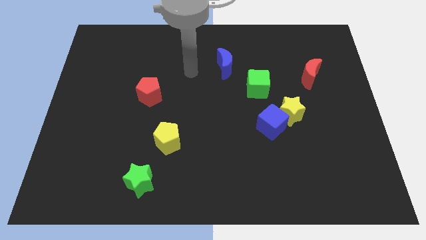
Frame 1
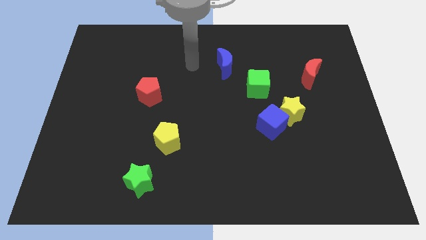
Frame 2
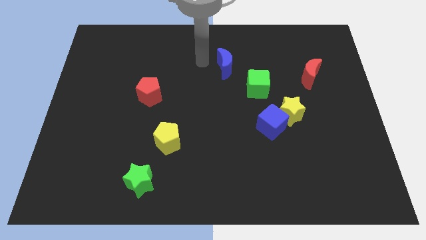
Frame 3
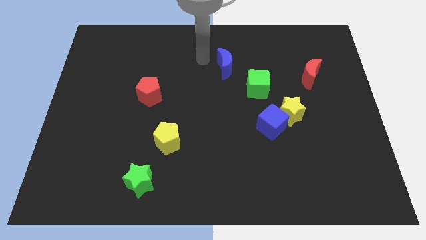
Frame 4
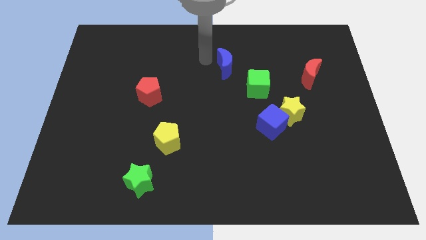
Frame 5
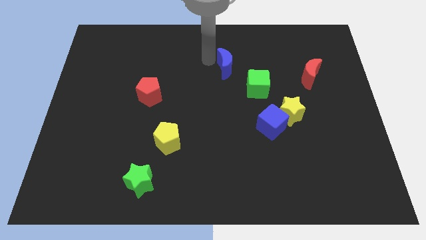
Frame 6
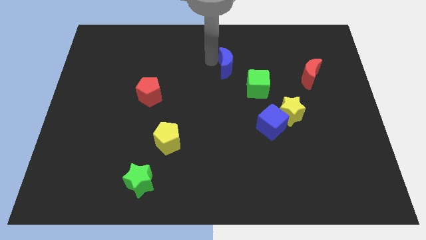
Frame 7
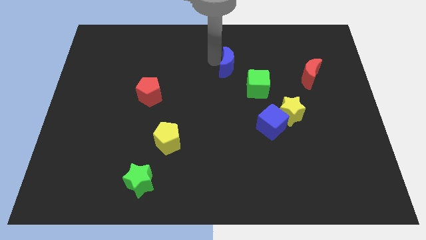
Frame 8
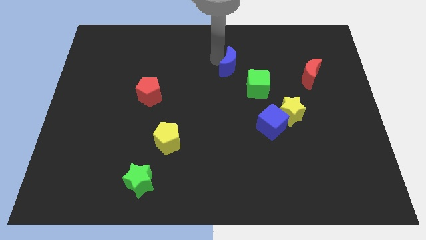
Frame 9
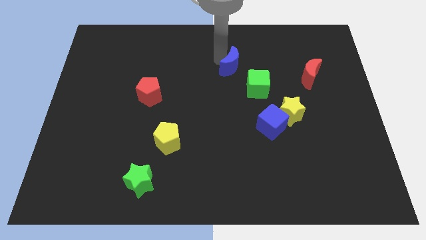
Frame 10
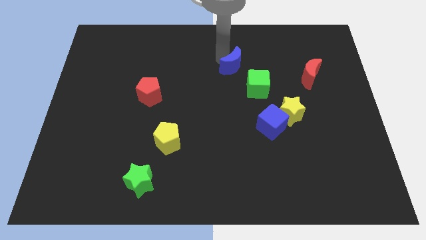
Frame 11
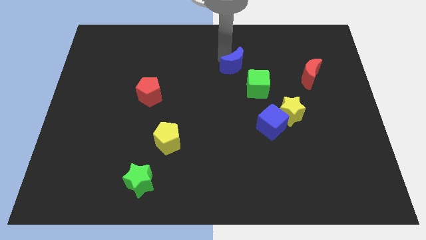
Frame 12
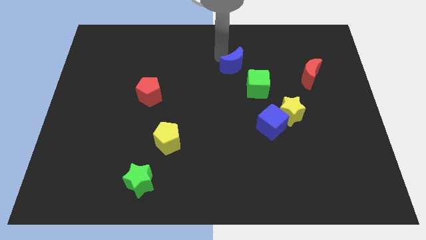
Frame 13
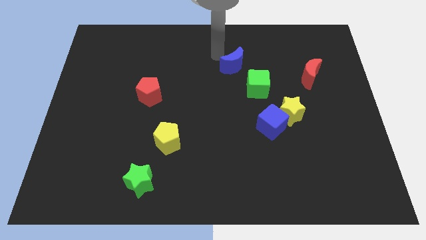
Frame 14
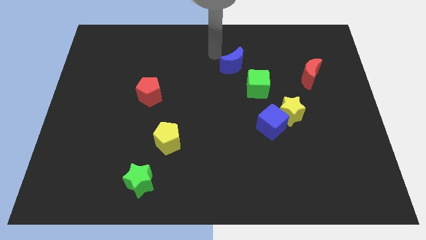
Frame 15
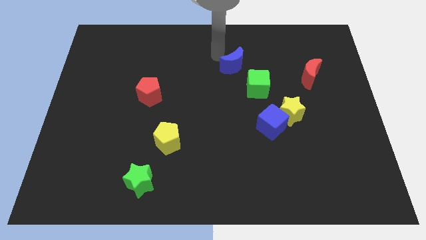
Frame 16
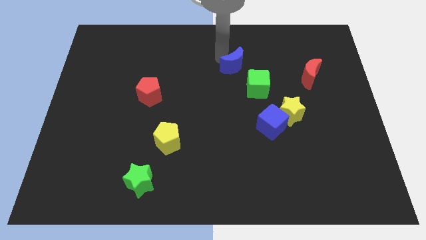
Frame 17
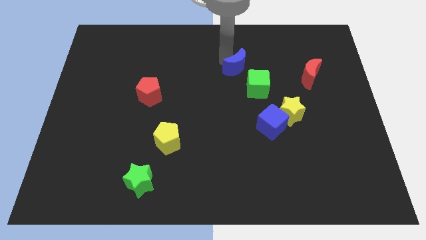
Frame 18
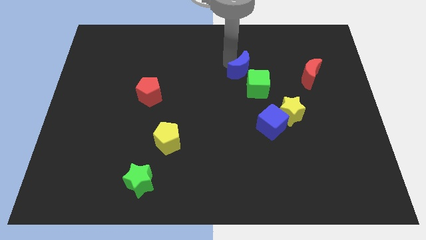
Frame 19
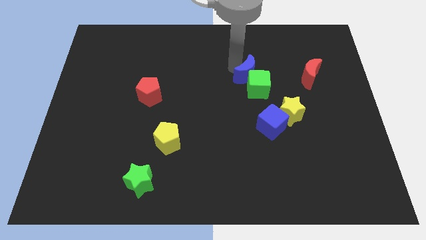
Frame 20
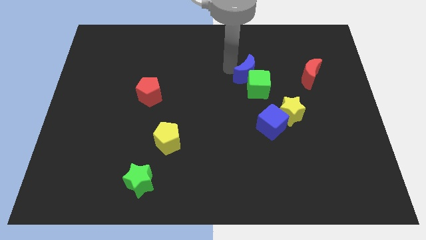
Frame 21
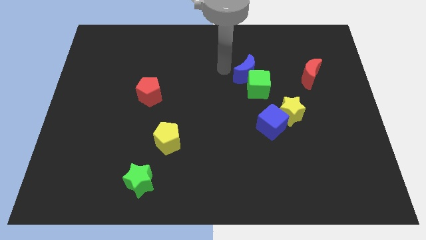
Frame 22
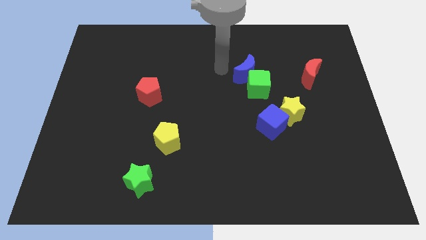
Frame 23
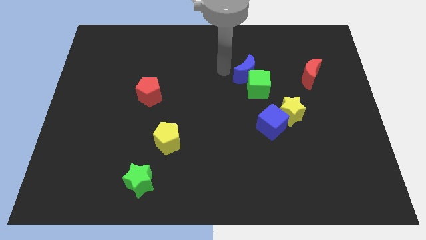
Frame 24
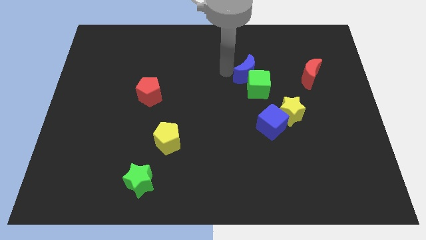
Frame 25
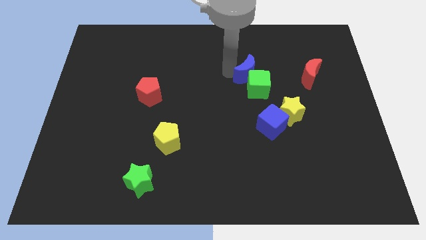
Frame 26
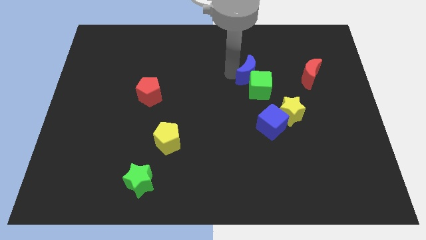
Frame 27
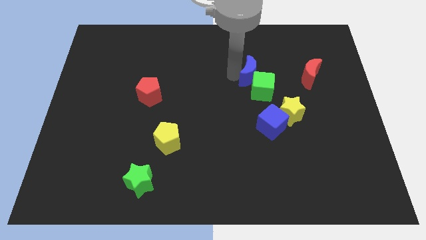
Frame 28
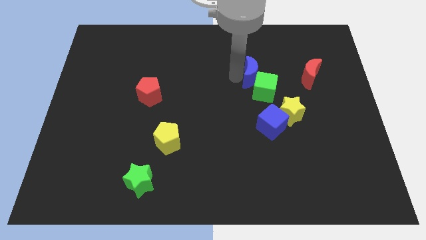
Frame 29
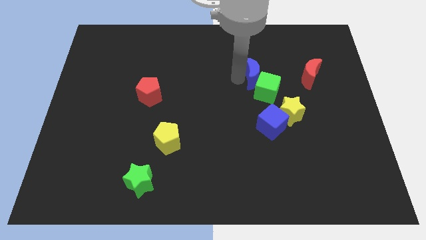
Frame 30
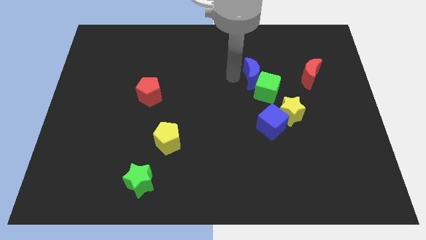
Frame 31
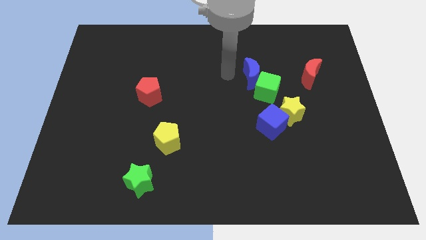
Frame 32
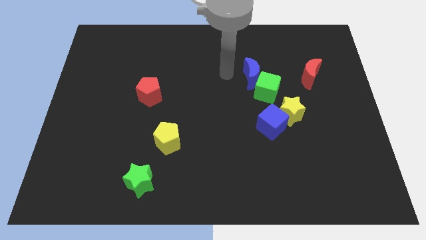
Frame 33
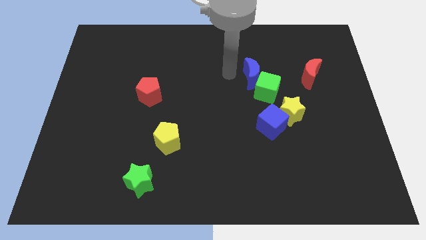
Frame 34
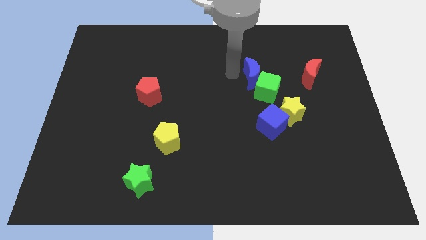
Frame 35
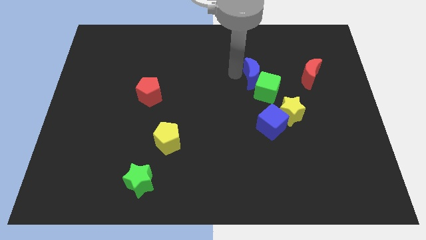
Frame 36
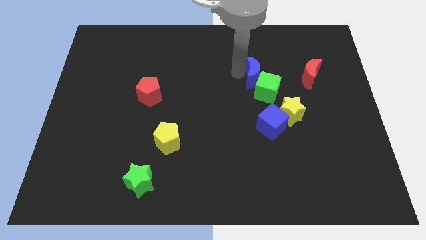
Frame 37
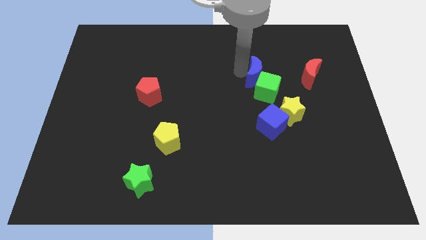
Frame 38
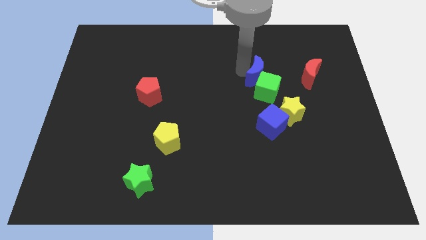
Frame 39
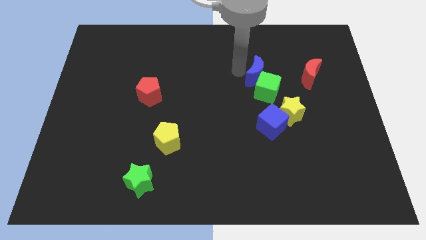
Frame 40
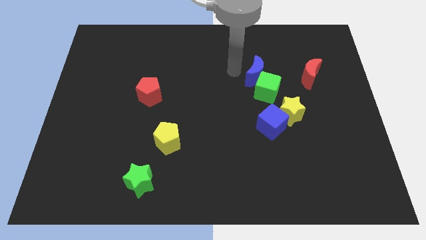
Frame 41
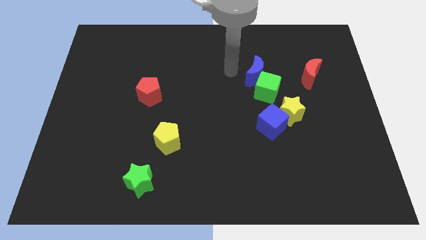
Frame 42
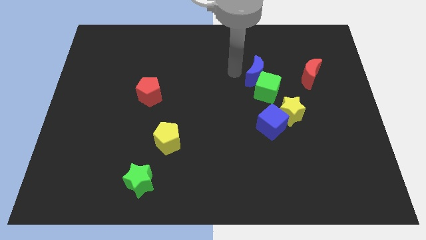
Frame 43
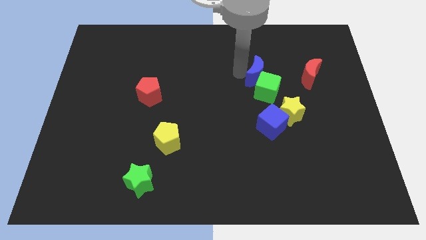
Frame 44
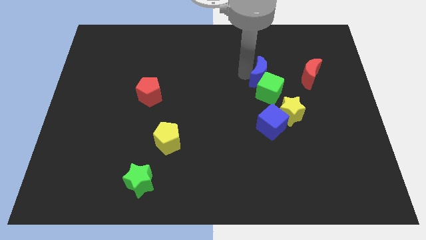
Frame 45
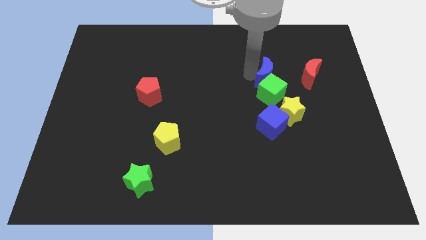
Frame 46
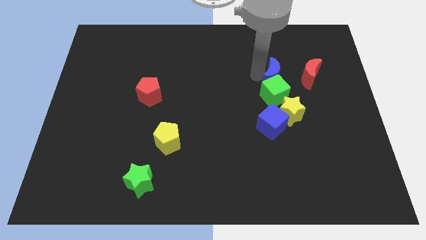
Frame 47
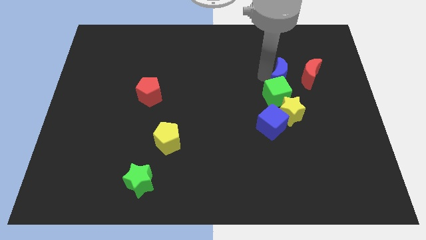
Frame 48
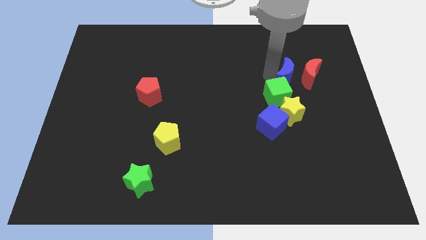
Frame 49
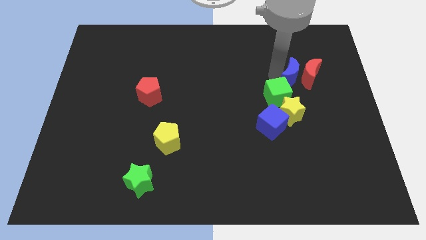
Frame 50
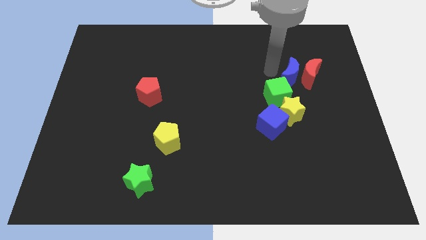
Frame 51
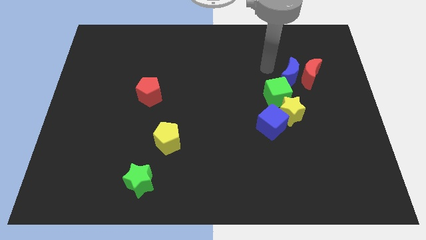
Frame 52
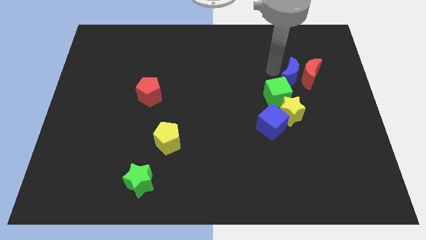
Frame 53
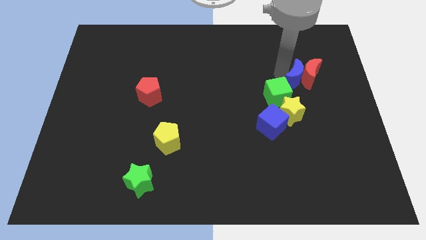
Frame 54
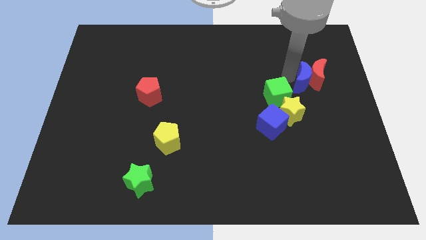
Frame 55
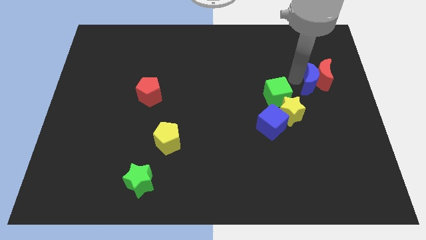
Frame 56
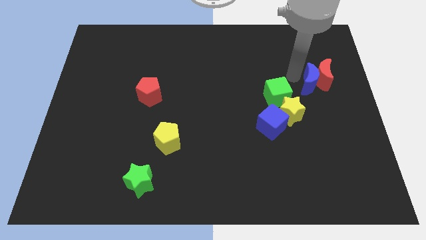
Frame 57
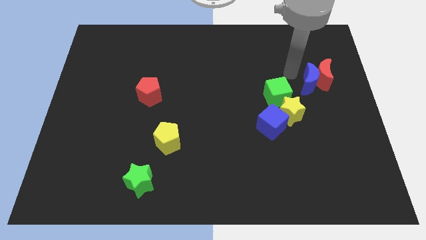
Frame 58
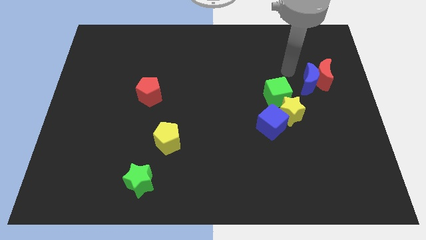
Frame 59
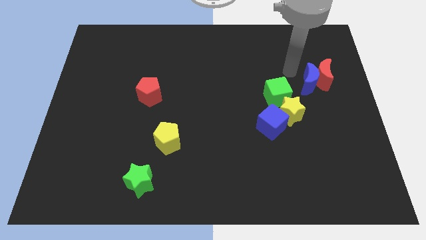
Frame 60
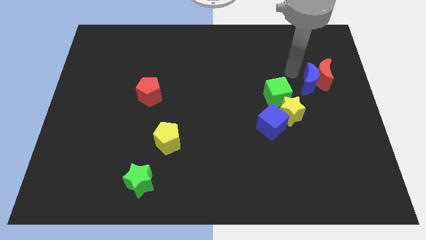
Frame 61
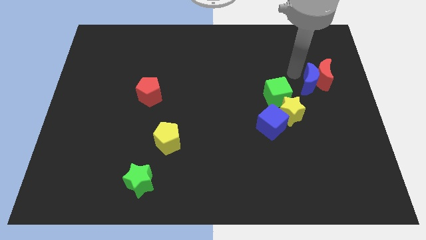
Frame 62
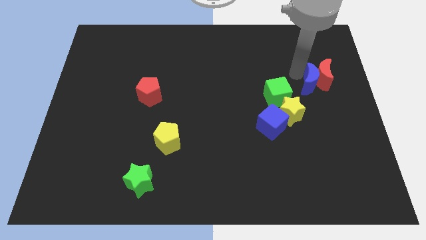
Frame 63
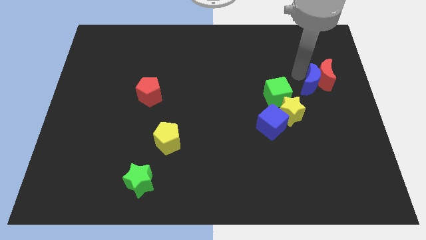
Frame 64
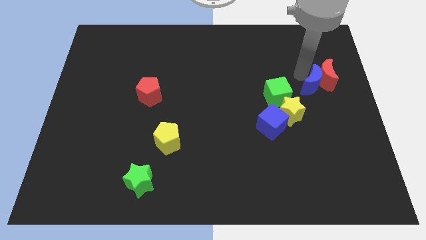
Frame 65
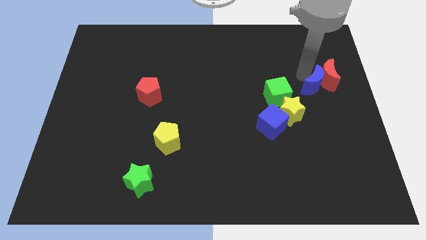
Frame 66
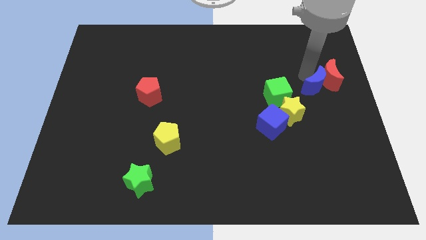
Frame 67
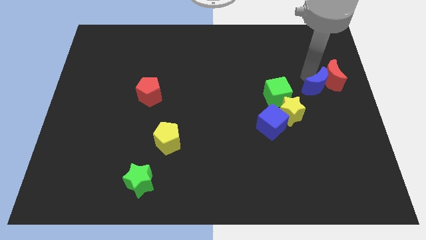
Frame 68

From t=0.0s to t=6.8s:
slide the blue moon to the right side

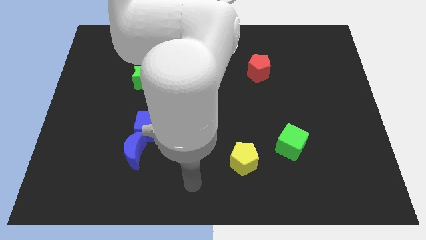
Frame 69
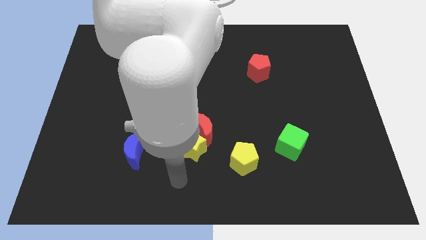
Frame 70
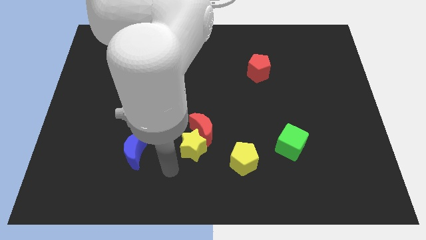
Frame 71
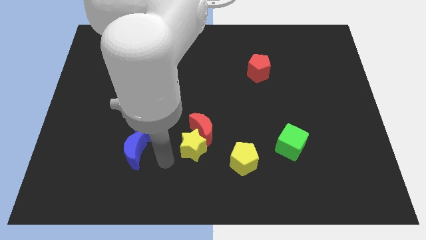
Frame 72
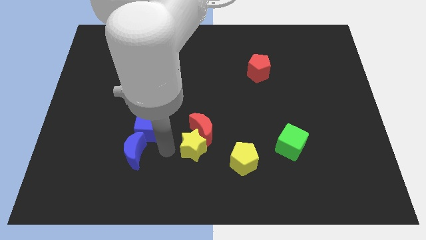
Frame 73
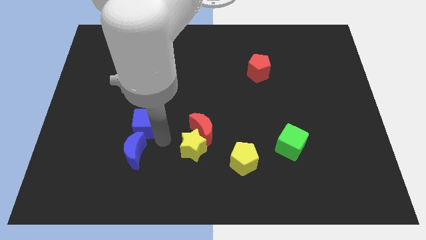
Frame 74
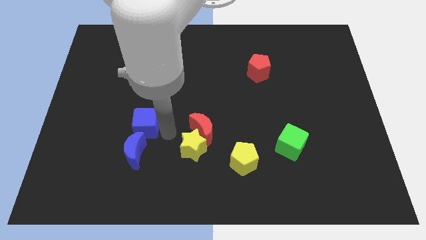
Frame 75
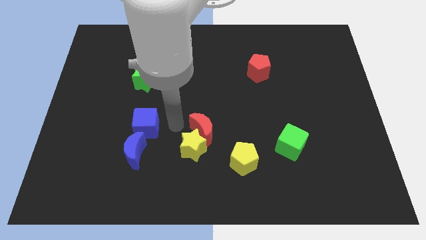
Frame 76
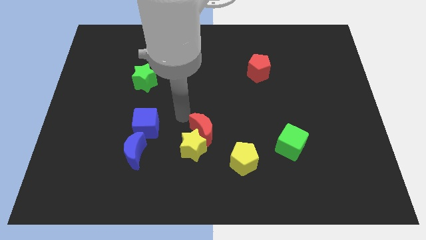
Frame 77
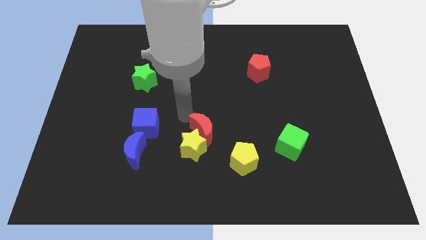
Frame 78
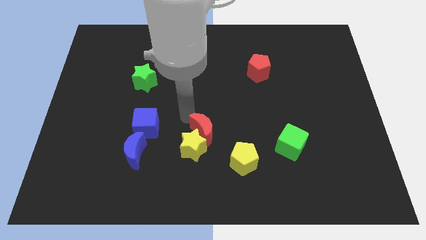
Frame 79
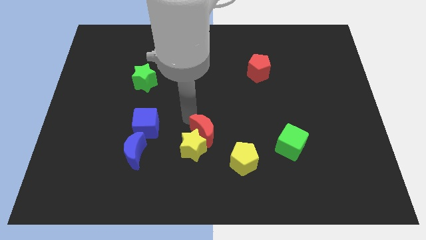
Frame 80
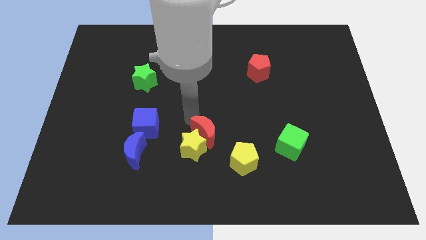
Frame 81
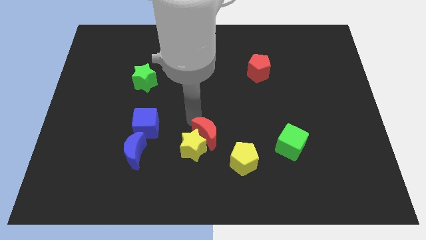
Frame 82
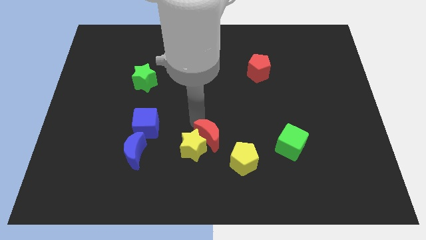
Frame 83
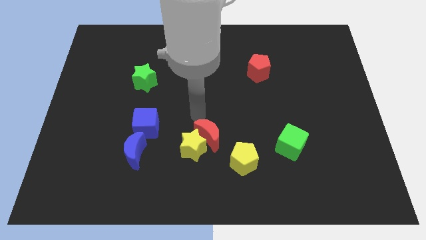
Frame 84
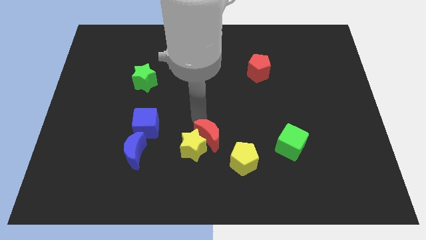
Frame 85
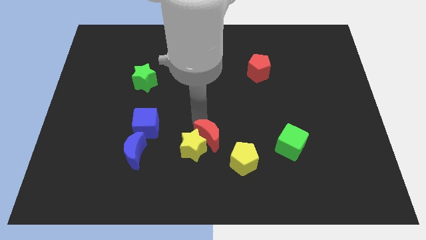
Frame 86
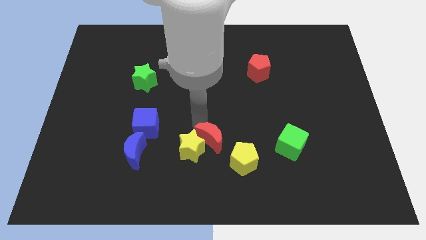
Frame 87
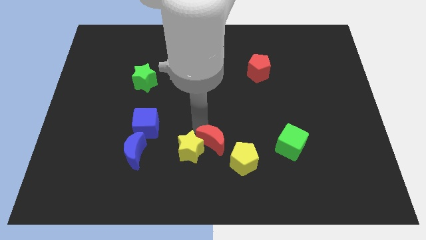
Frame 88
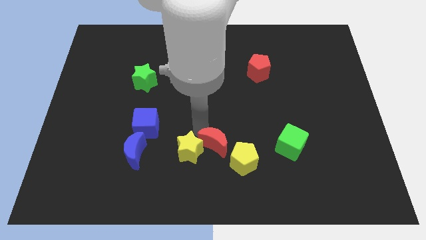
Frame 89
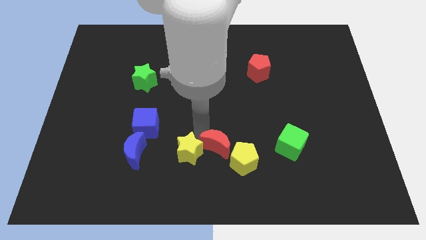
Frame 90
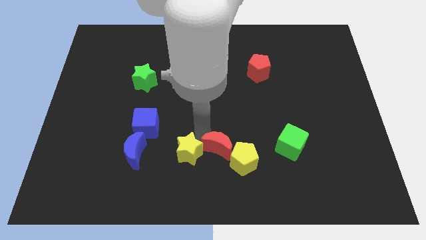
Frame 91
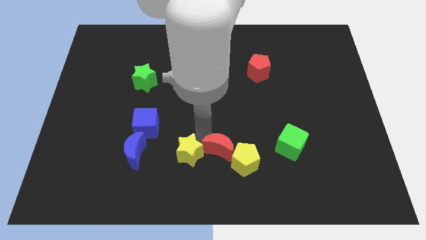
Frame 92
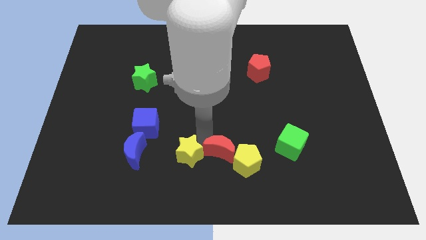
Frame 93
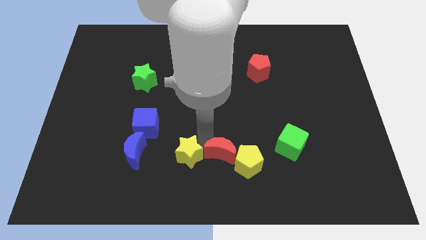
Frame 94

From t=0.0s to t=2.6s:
move the red moon to the bottom
